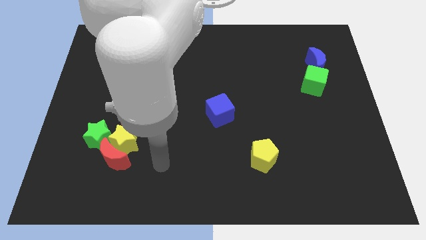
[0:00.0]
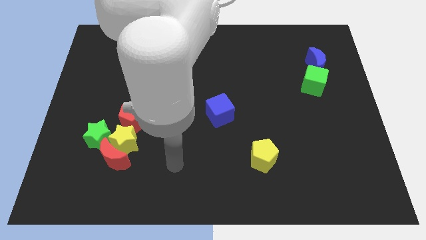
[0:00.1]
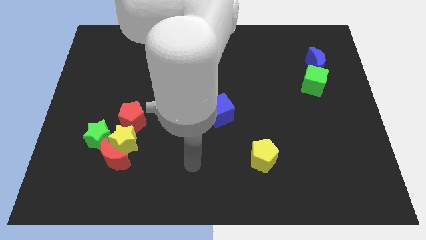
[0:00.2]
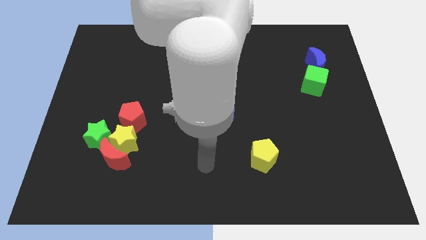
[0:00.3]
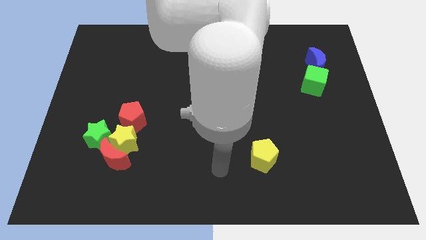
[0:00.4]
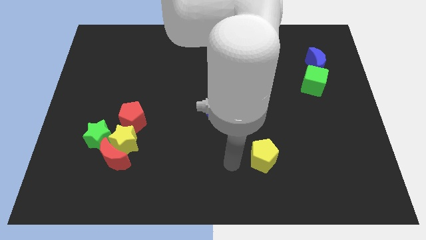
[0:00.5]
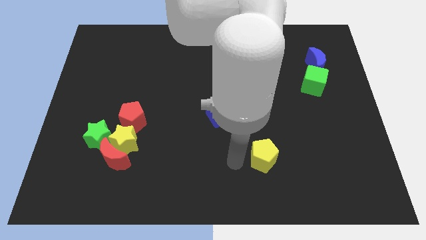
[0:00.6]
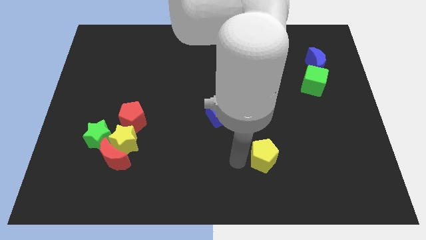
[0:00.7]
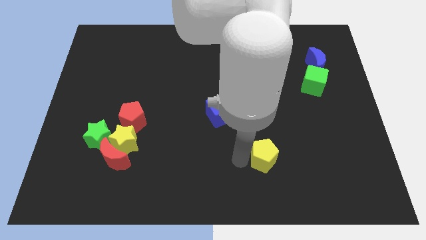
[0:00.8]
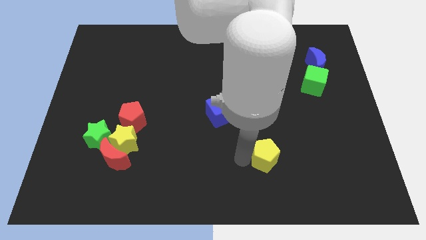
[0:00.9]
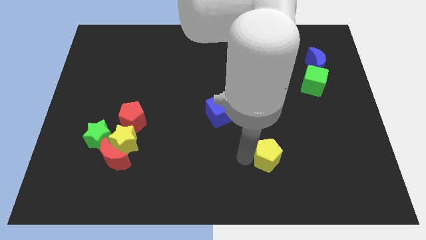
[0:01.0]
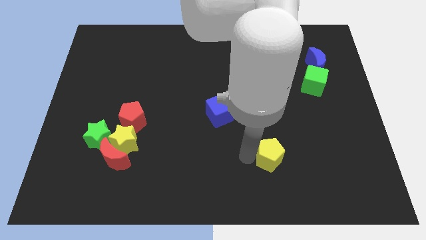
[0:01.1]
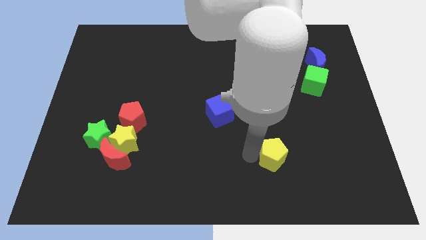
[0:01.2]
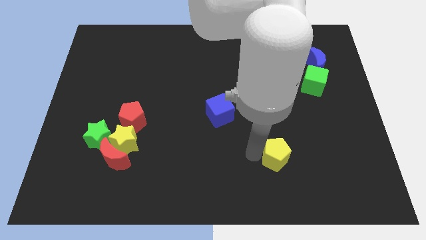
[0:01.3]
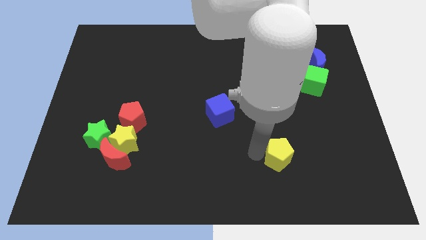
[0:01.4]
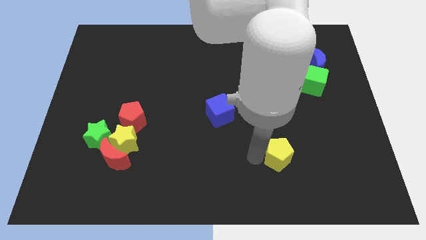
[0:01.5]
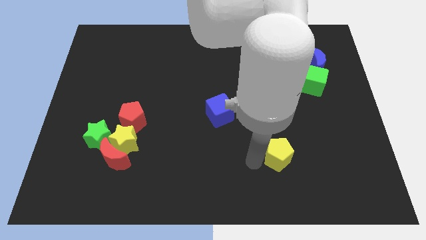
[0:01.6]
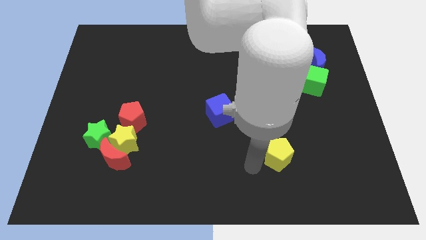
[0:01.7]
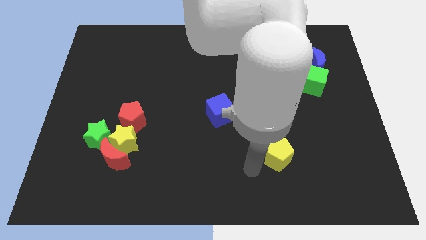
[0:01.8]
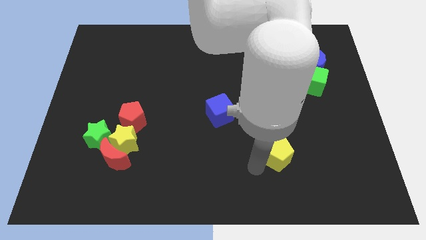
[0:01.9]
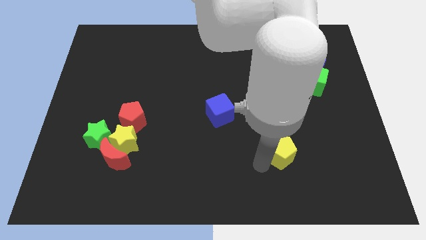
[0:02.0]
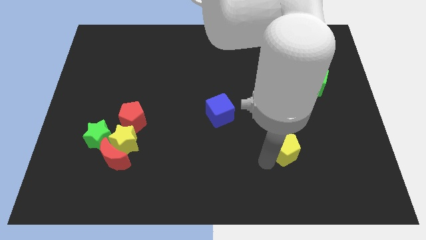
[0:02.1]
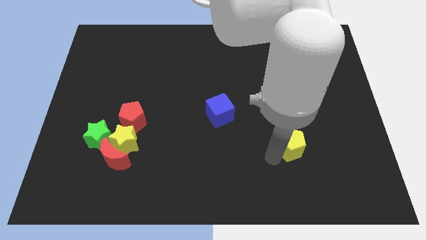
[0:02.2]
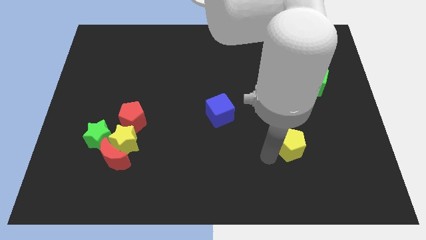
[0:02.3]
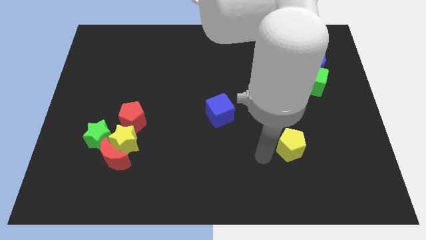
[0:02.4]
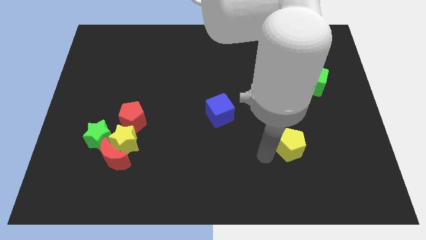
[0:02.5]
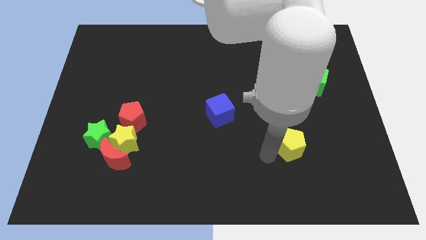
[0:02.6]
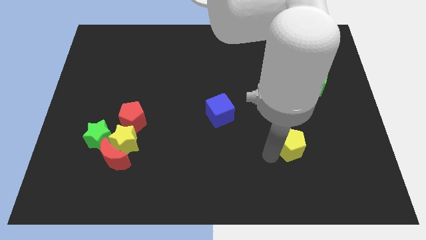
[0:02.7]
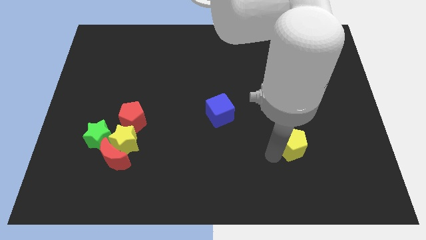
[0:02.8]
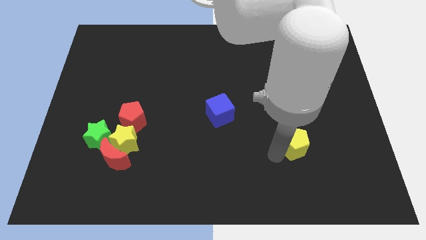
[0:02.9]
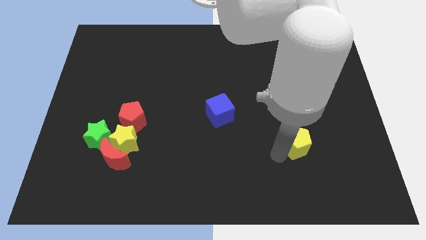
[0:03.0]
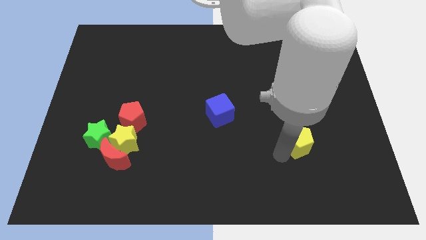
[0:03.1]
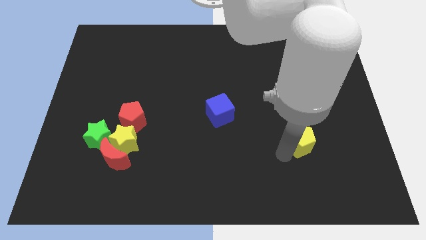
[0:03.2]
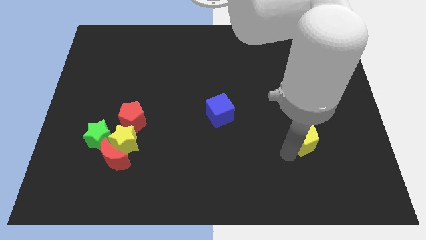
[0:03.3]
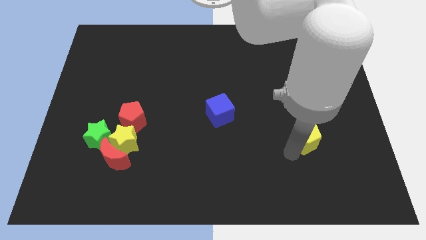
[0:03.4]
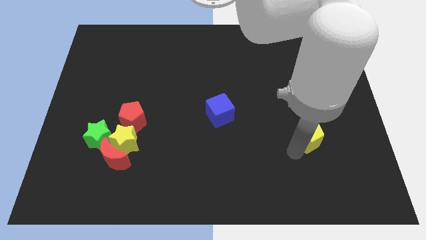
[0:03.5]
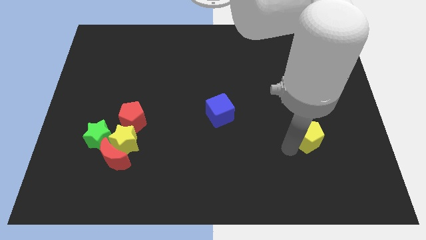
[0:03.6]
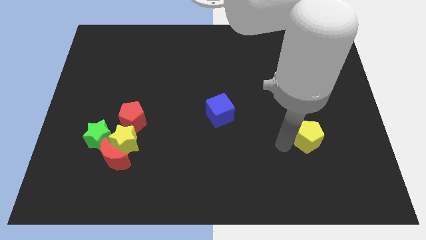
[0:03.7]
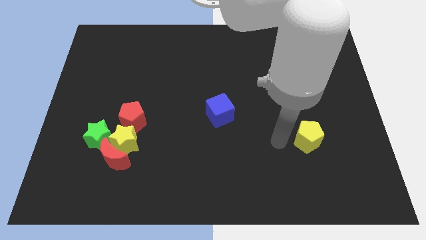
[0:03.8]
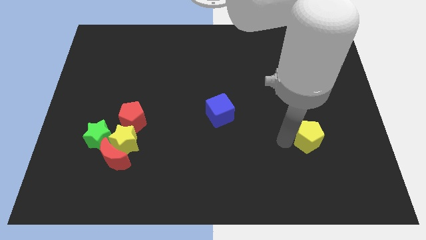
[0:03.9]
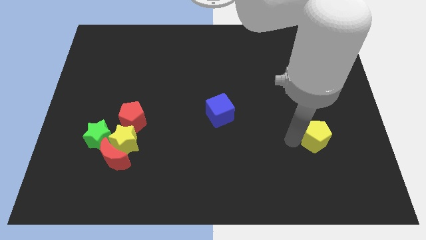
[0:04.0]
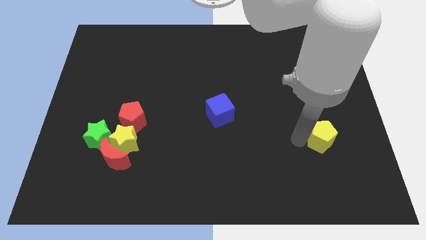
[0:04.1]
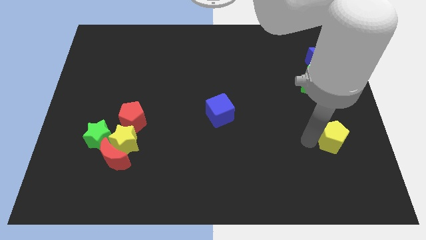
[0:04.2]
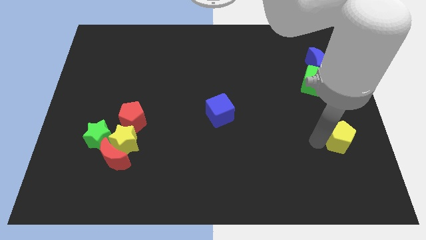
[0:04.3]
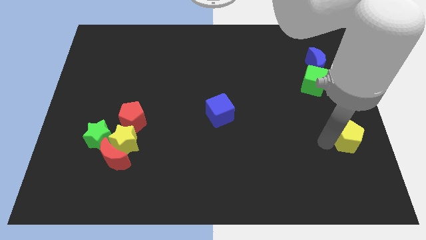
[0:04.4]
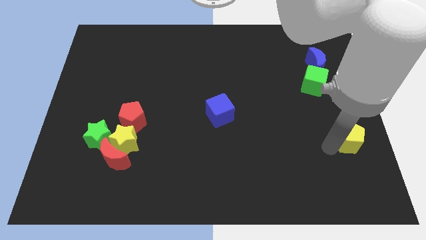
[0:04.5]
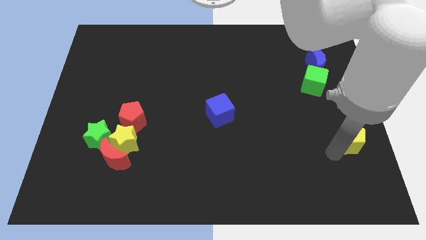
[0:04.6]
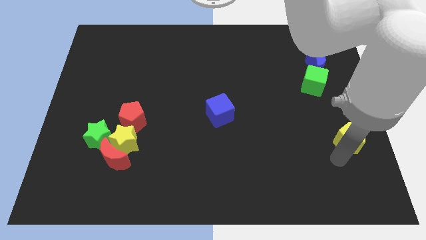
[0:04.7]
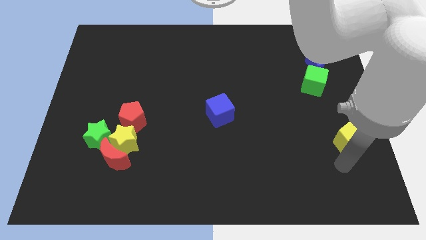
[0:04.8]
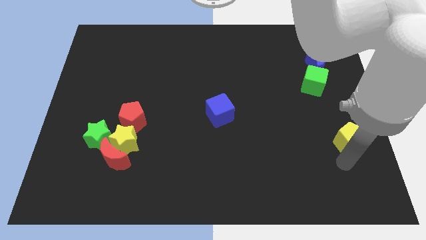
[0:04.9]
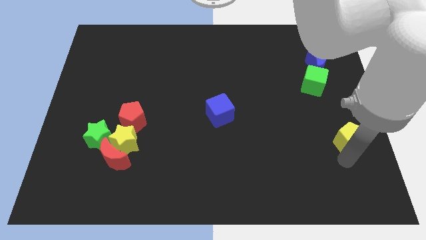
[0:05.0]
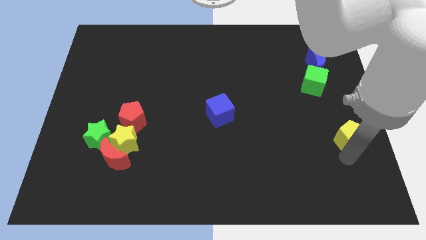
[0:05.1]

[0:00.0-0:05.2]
put the yellow pentagon to the right side

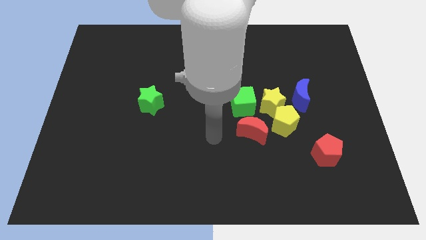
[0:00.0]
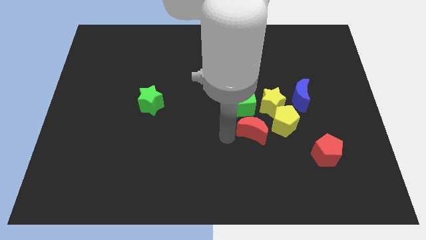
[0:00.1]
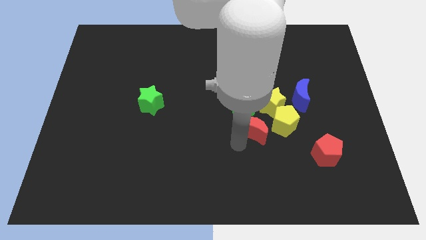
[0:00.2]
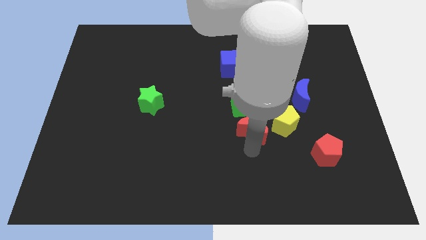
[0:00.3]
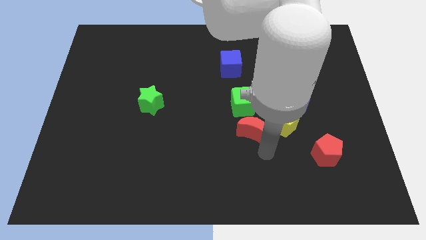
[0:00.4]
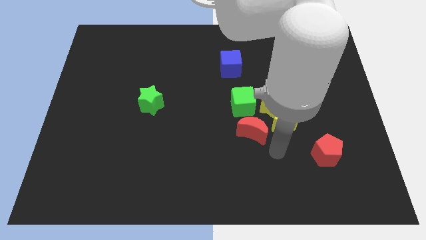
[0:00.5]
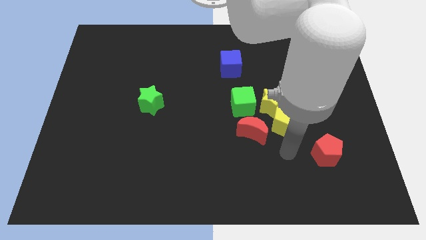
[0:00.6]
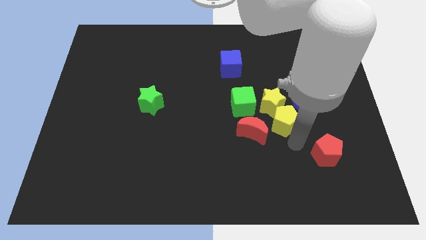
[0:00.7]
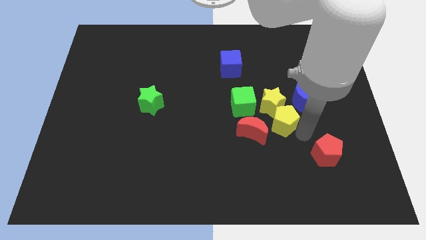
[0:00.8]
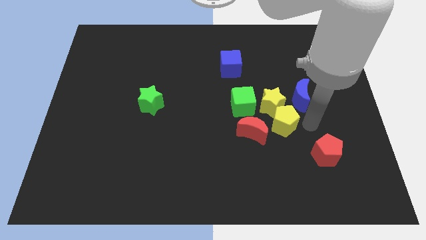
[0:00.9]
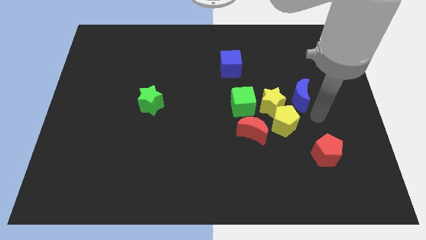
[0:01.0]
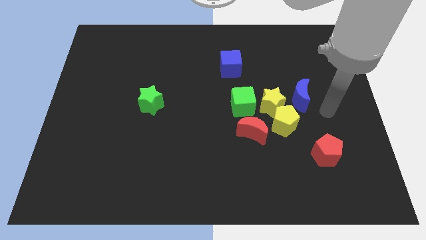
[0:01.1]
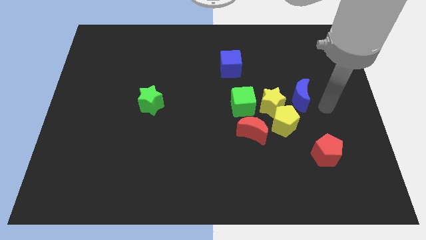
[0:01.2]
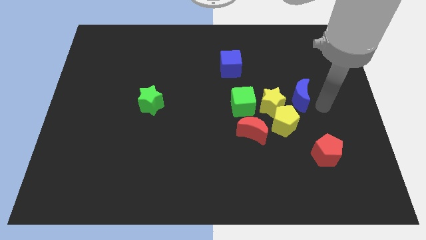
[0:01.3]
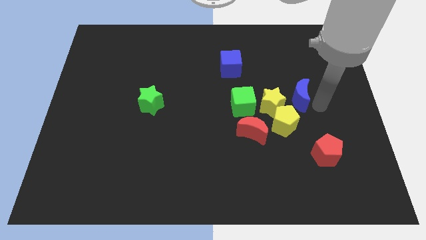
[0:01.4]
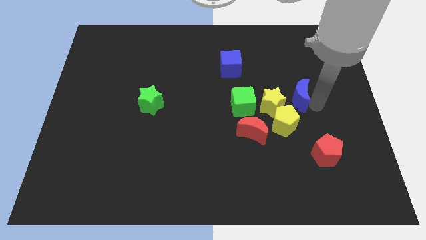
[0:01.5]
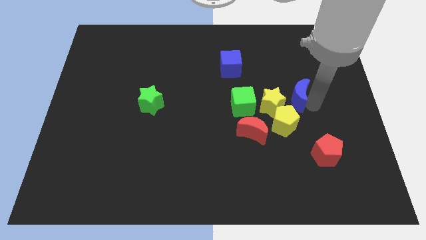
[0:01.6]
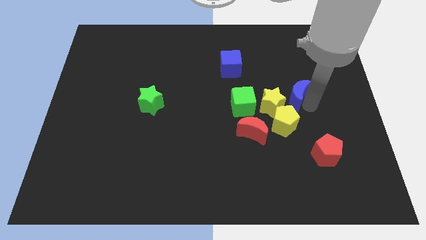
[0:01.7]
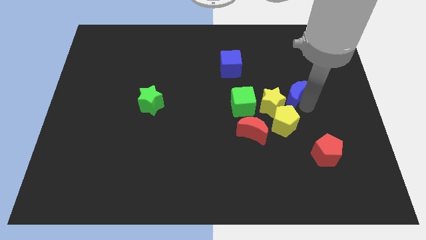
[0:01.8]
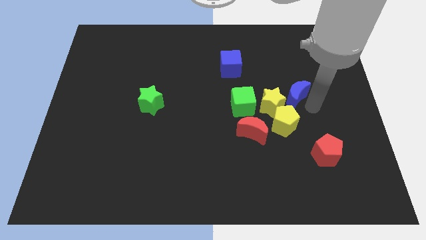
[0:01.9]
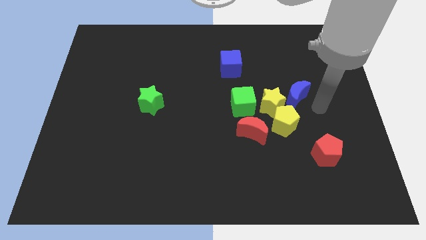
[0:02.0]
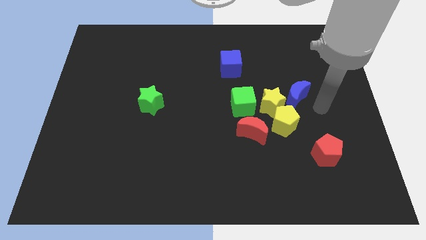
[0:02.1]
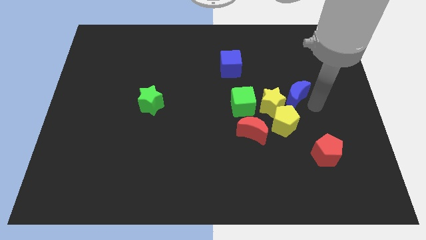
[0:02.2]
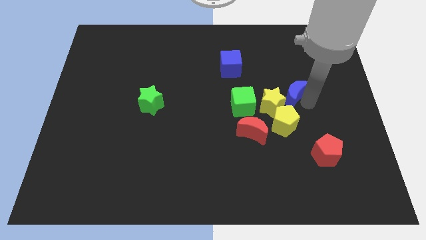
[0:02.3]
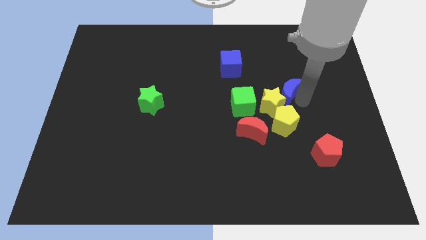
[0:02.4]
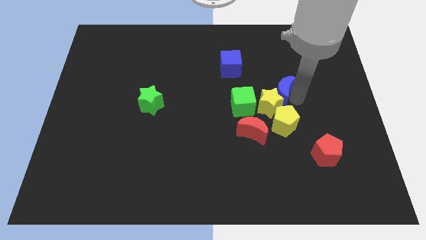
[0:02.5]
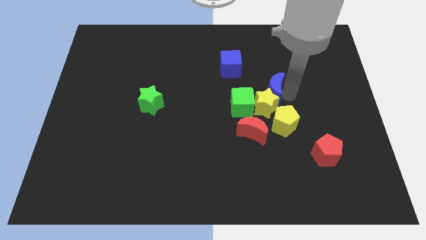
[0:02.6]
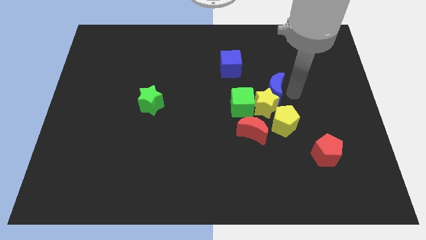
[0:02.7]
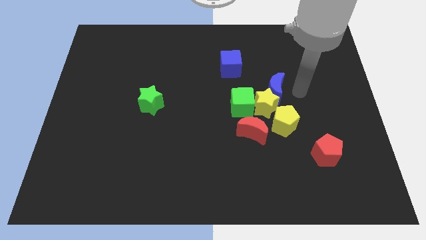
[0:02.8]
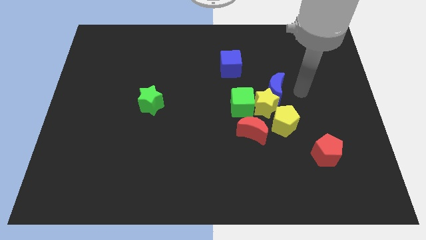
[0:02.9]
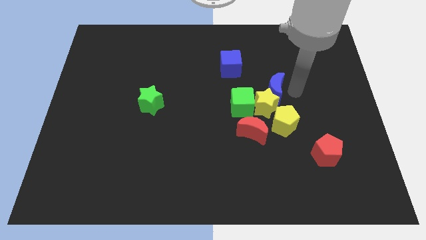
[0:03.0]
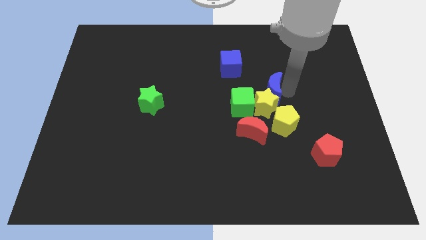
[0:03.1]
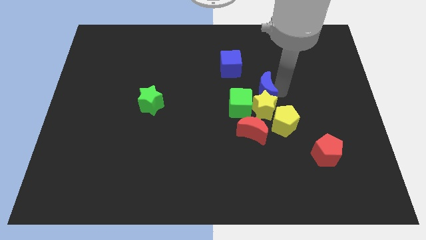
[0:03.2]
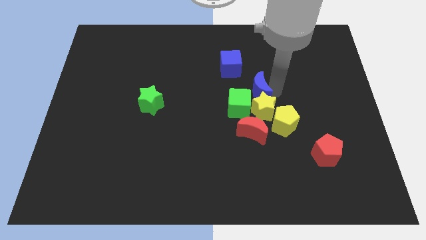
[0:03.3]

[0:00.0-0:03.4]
put the blue moon to the center of the board
